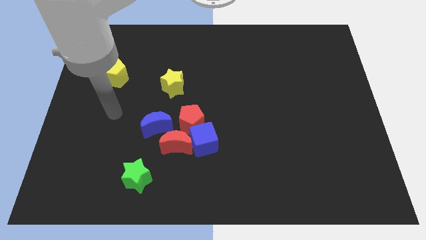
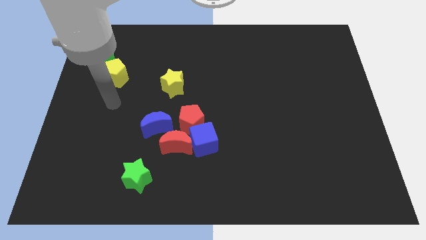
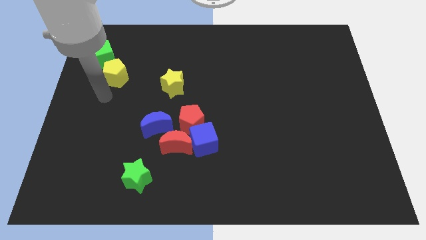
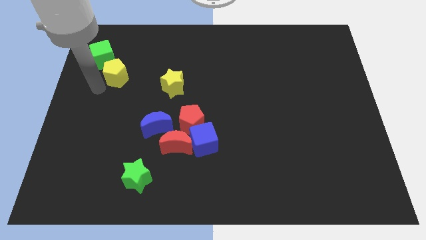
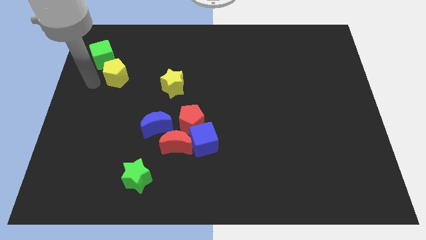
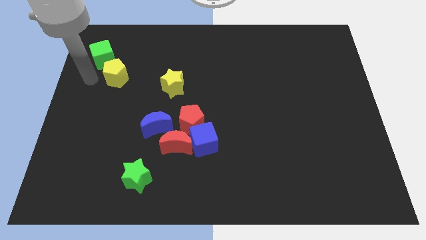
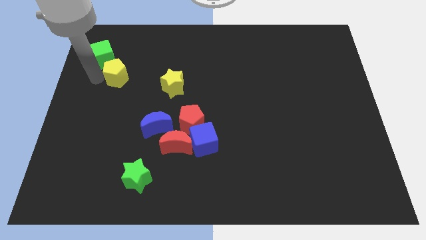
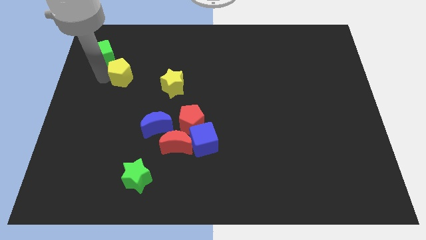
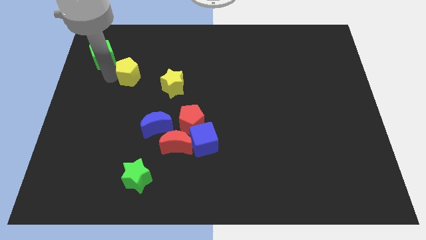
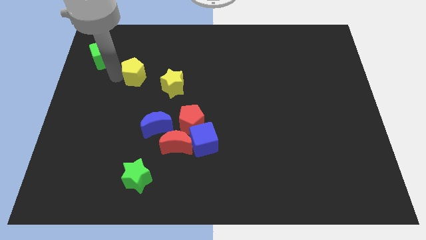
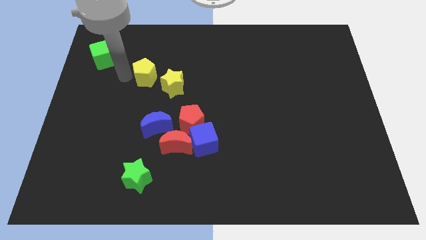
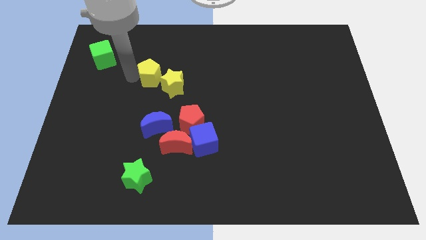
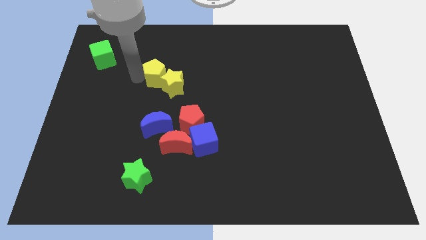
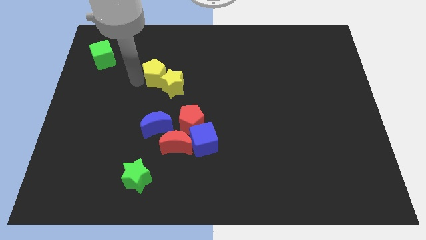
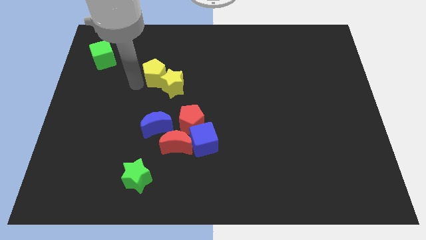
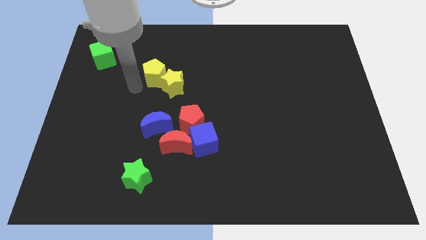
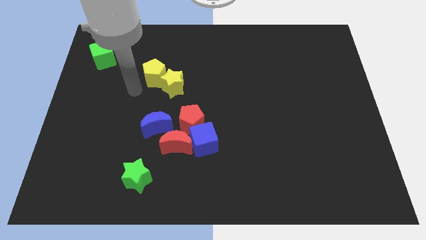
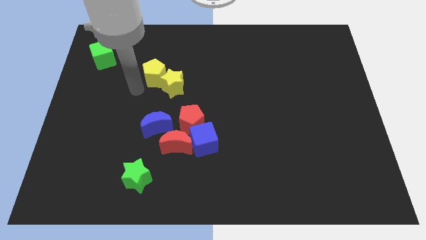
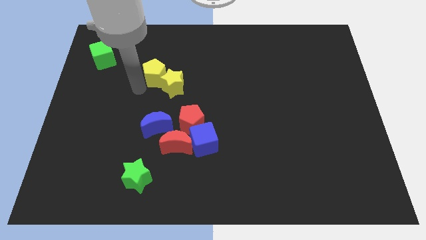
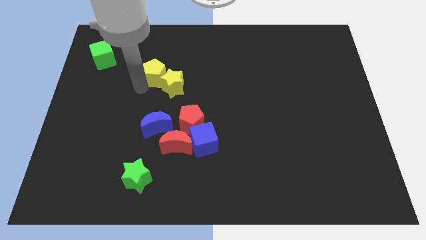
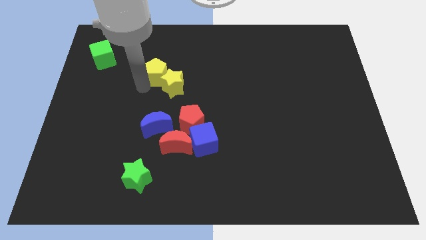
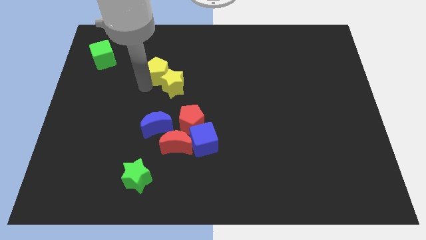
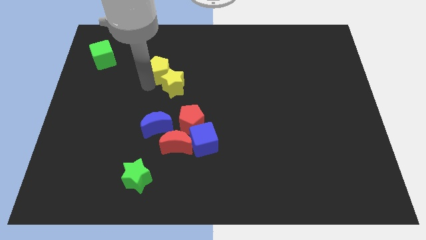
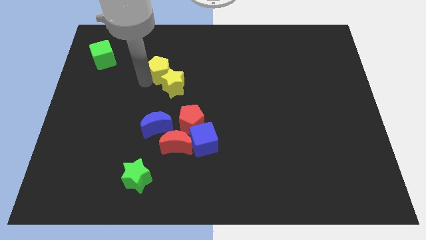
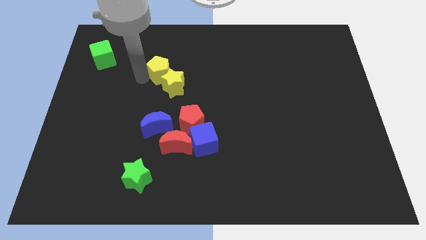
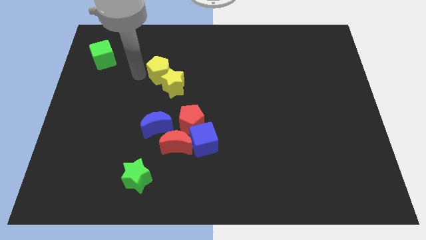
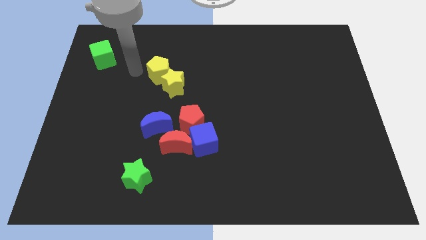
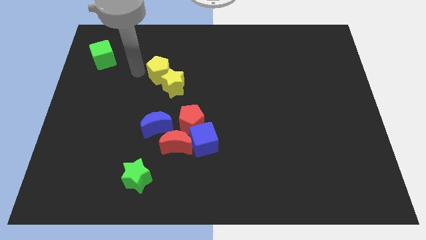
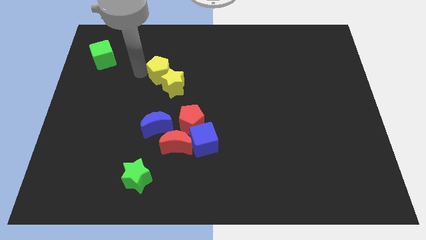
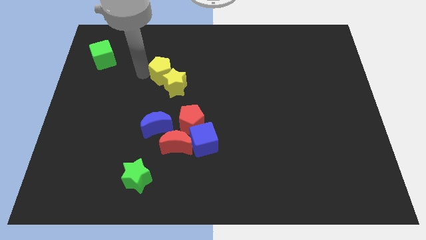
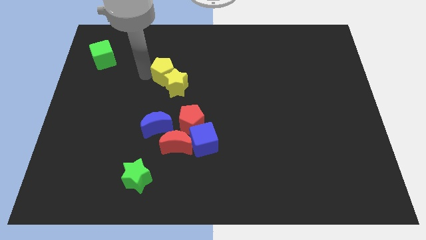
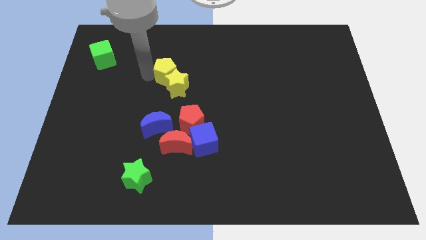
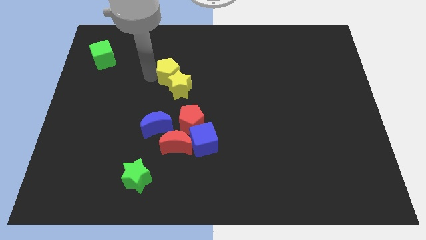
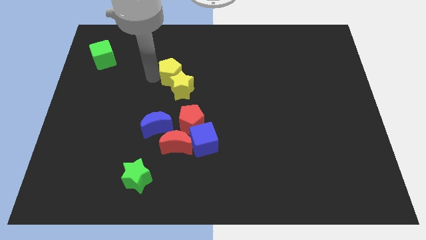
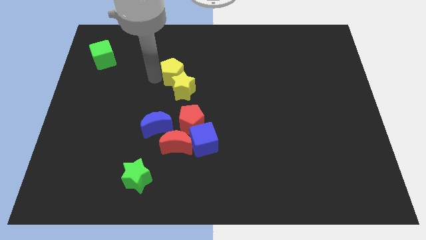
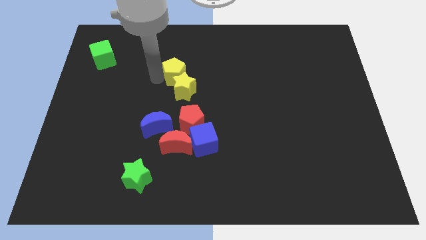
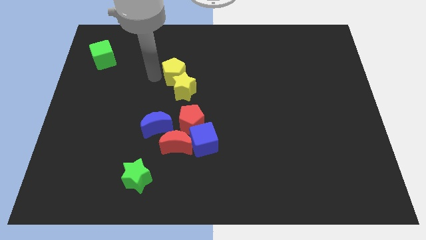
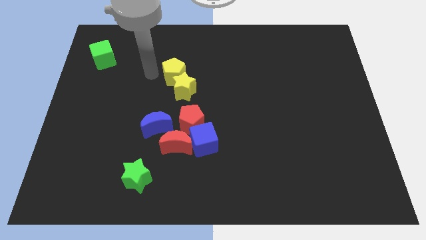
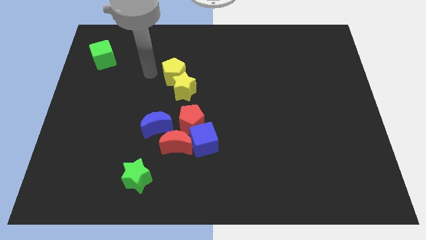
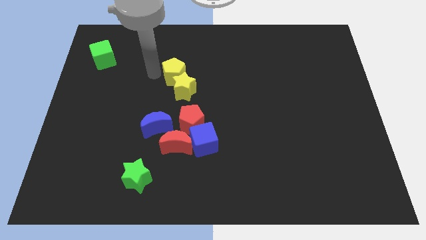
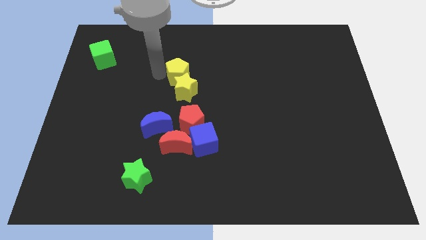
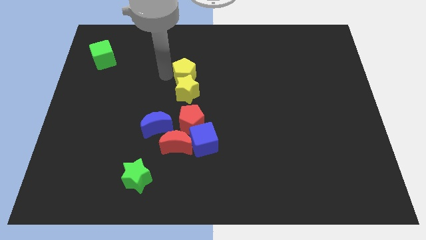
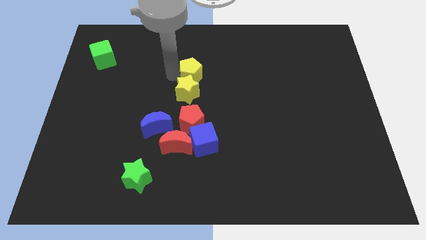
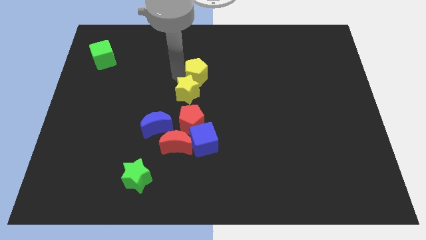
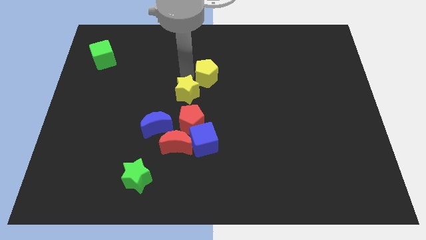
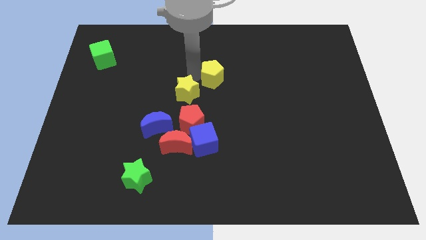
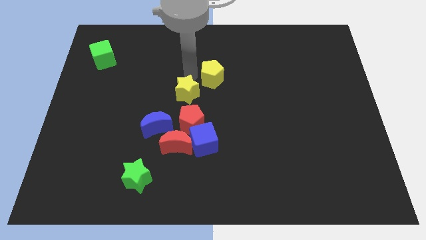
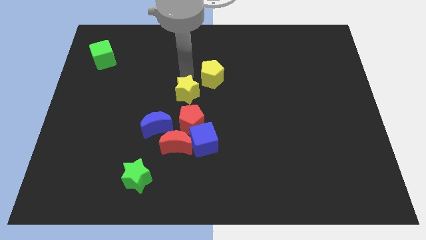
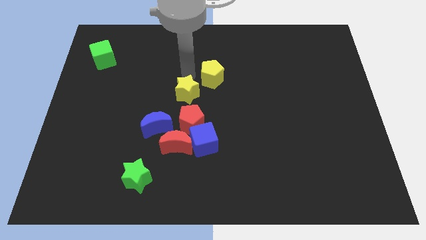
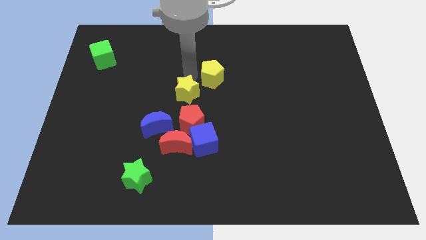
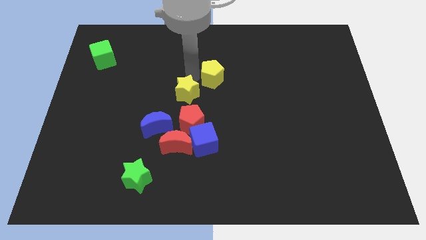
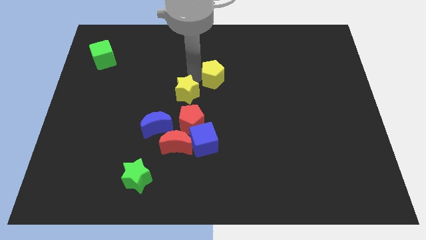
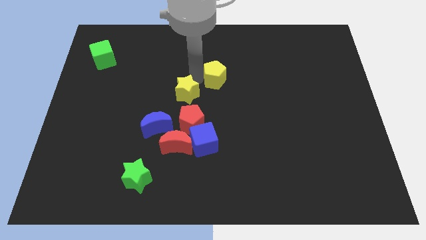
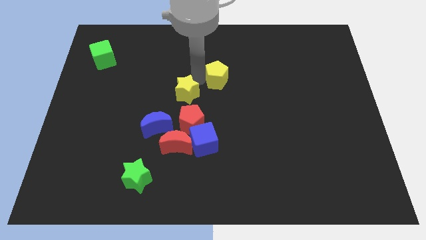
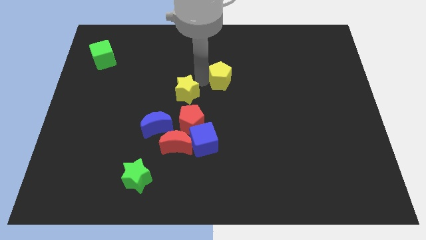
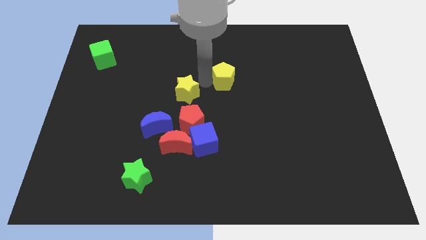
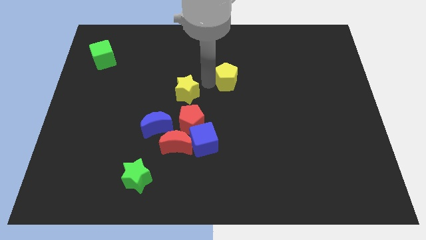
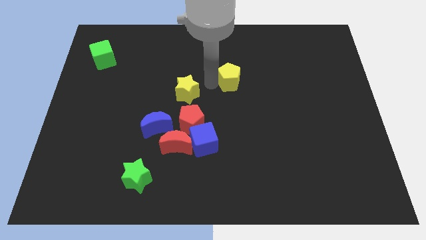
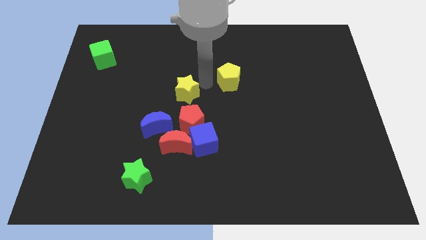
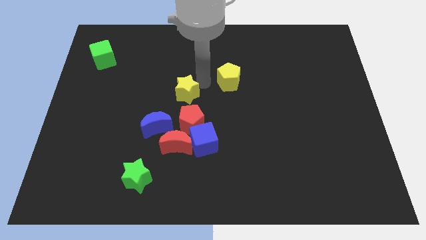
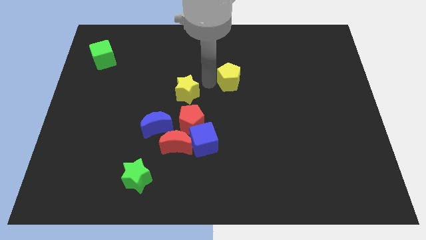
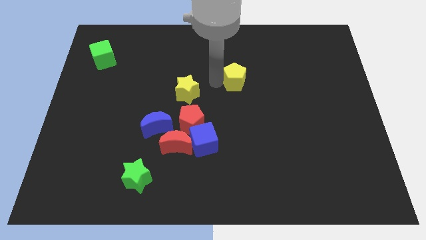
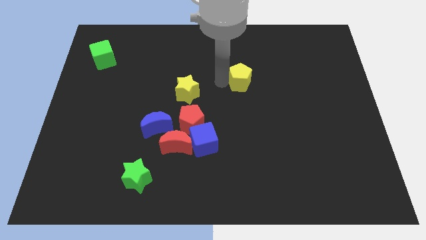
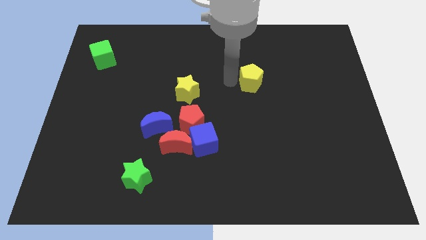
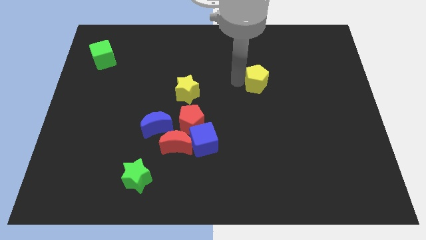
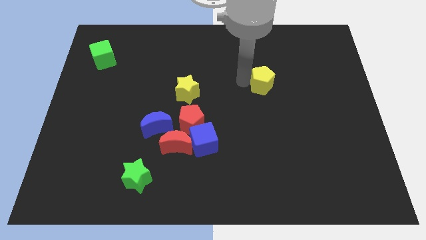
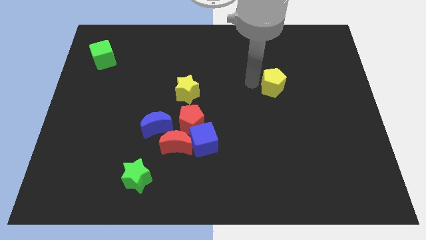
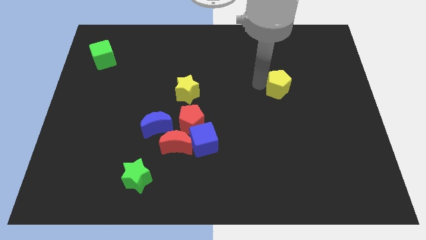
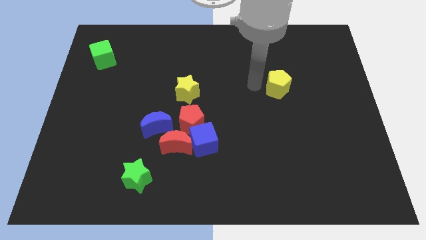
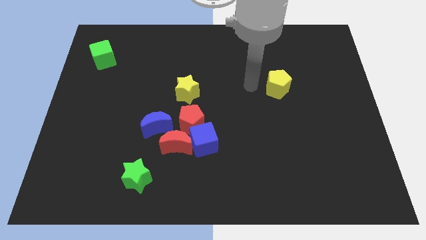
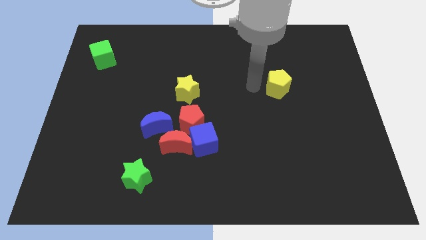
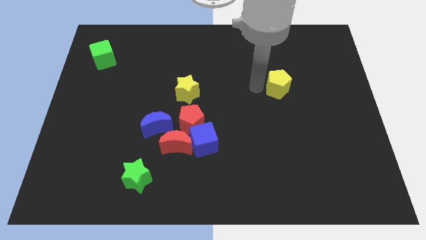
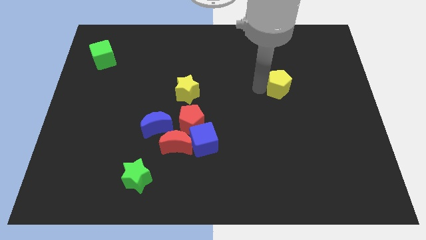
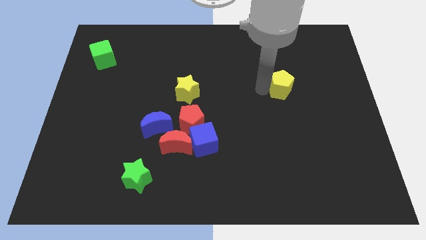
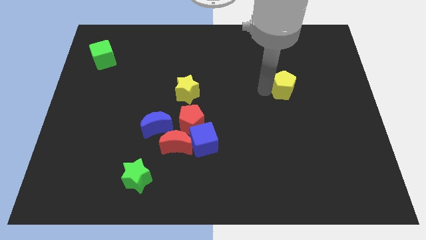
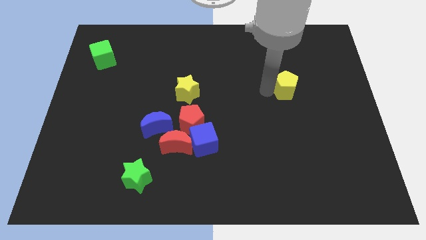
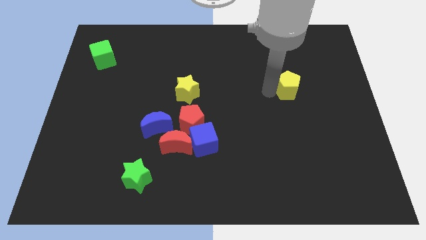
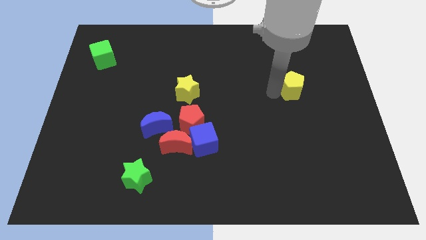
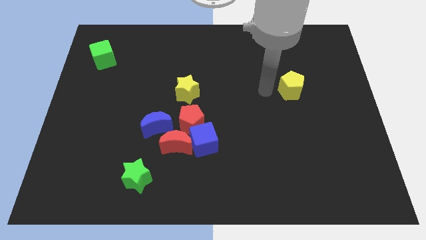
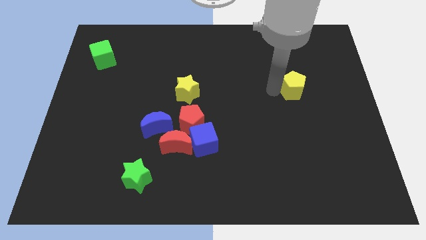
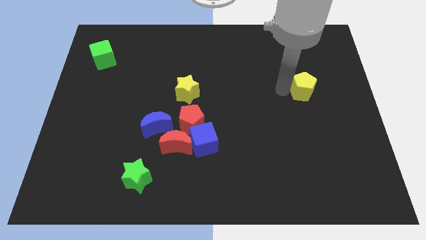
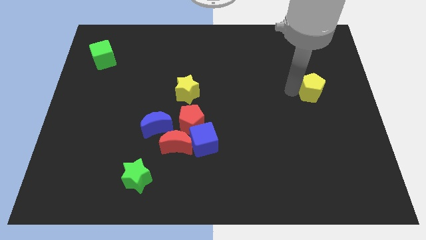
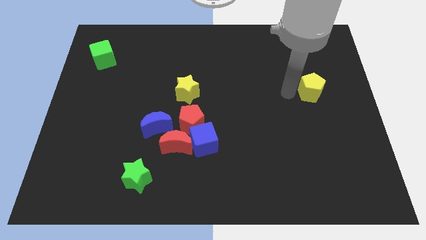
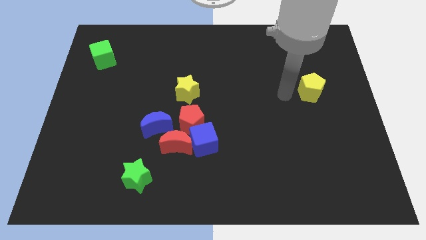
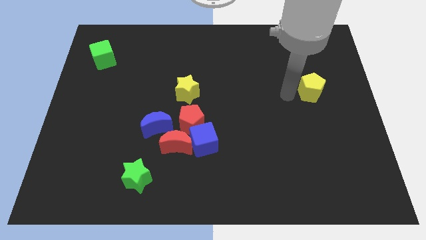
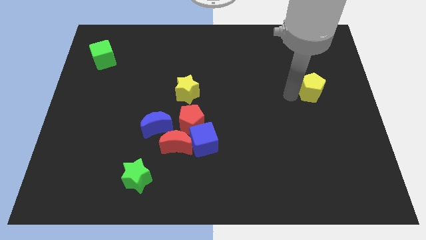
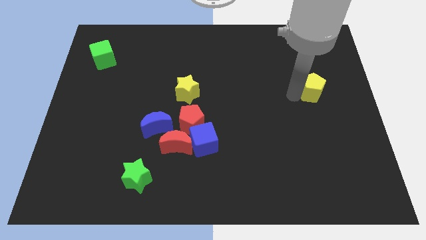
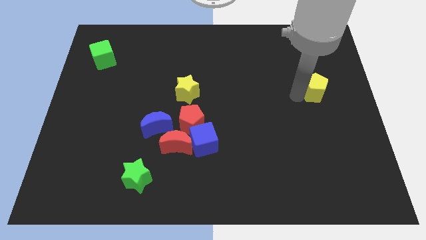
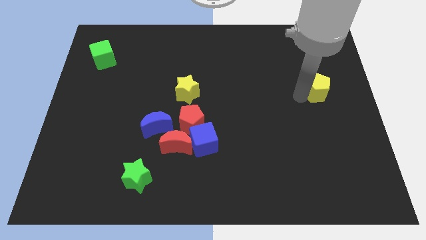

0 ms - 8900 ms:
slide the yellow pentagon to the center right
